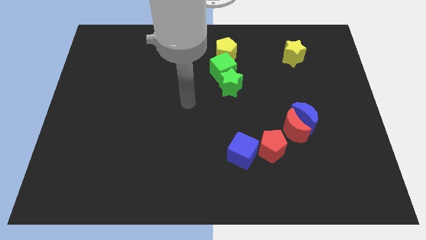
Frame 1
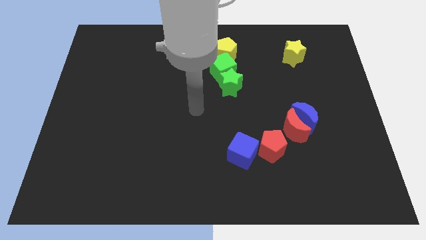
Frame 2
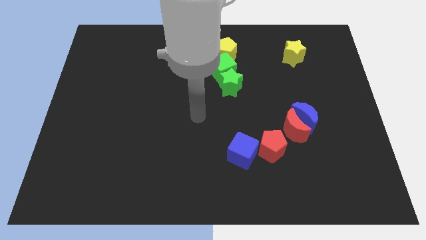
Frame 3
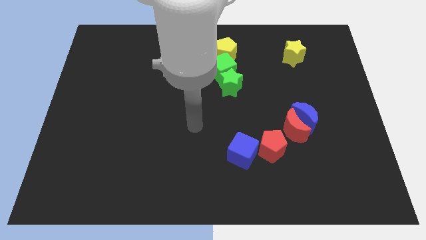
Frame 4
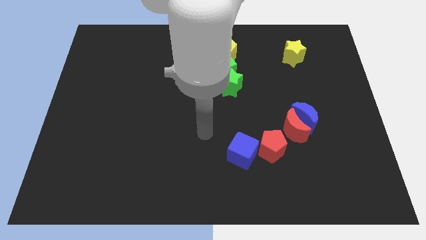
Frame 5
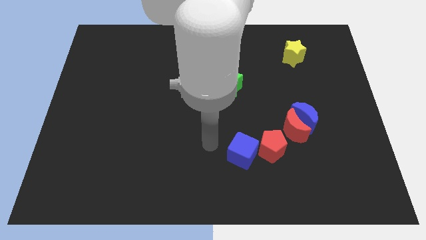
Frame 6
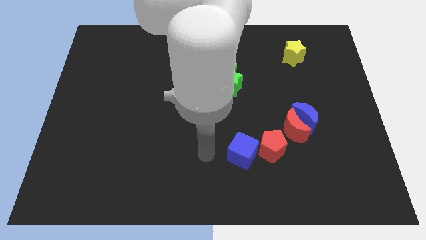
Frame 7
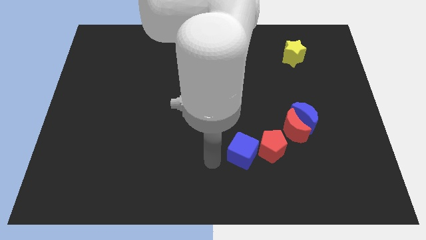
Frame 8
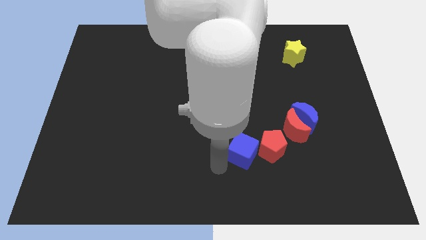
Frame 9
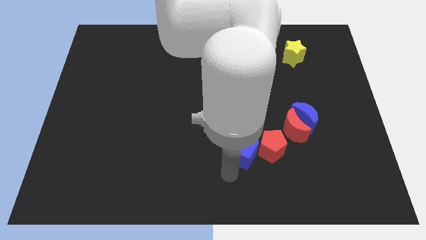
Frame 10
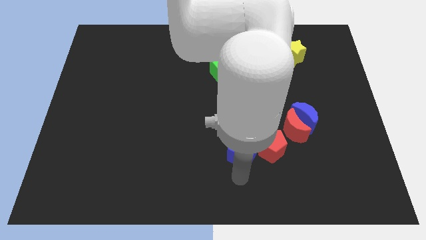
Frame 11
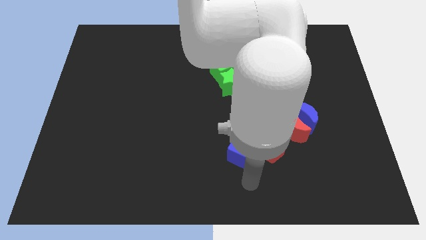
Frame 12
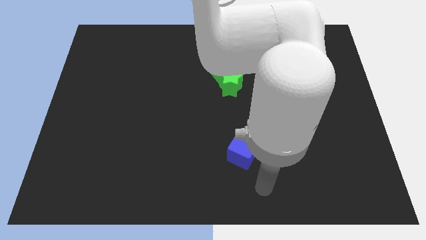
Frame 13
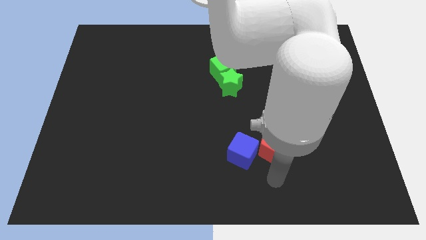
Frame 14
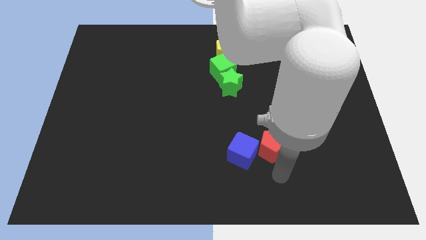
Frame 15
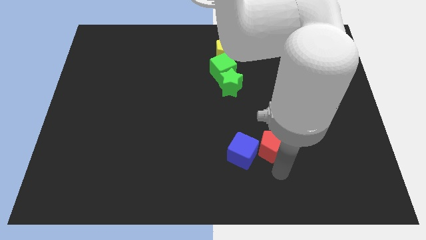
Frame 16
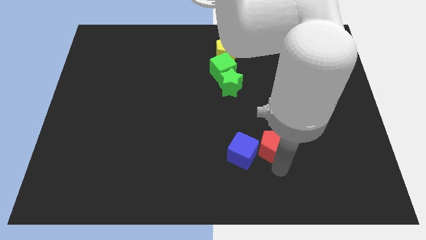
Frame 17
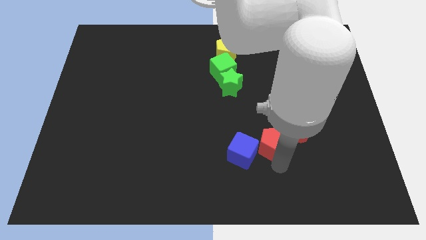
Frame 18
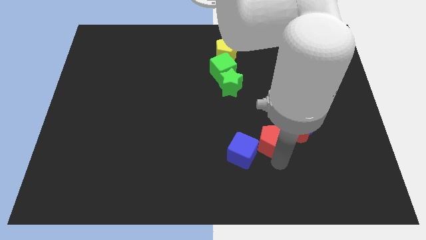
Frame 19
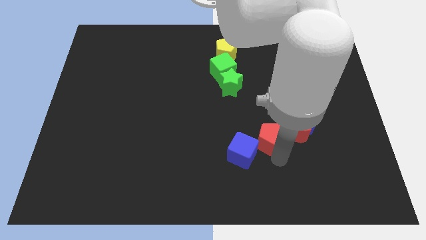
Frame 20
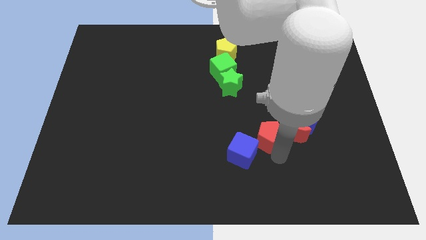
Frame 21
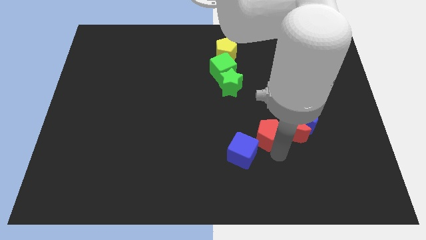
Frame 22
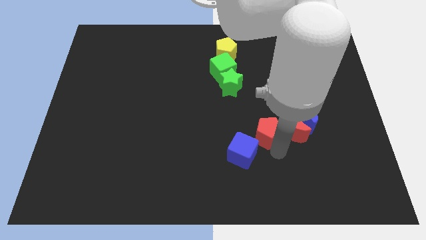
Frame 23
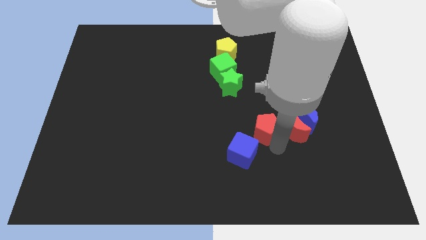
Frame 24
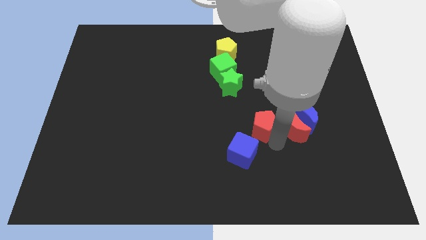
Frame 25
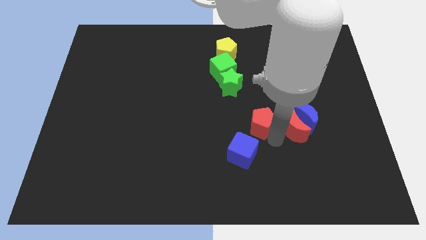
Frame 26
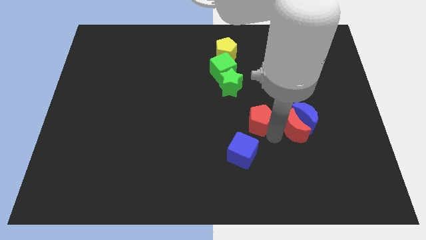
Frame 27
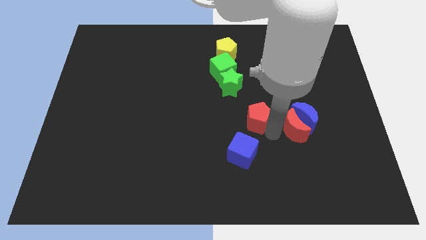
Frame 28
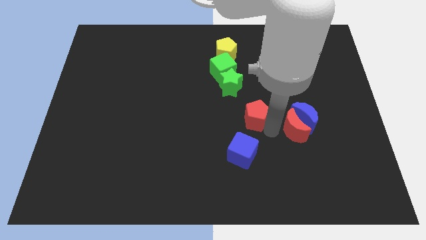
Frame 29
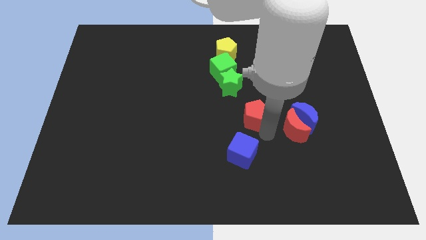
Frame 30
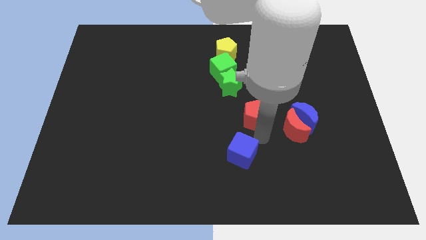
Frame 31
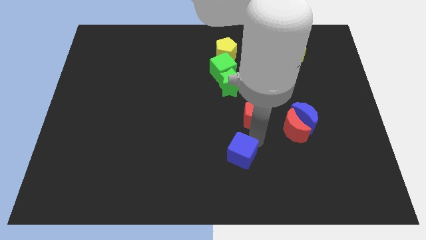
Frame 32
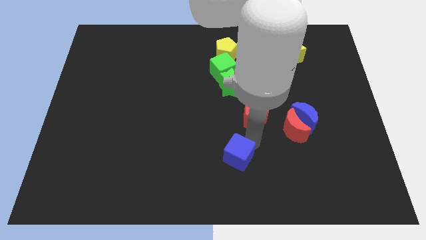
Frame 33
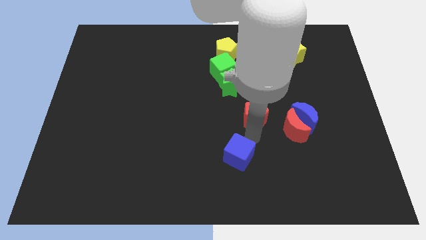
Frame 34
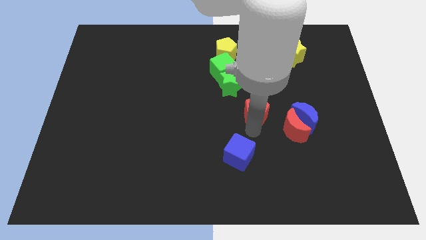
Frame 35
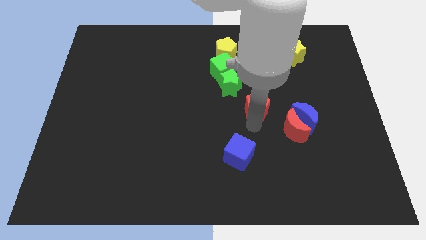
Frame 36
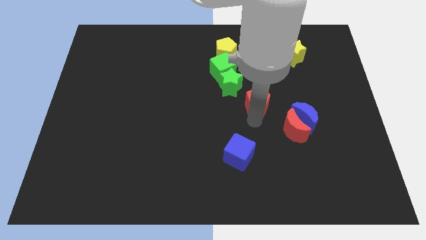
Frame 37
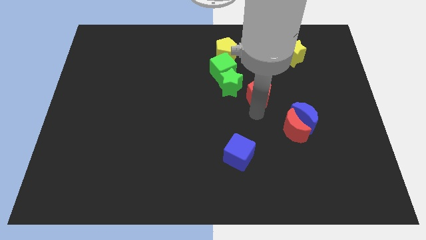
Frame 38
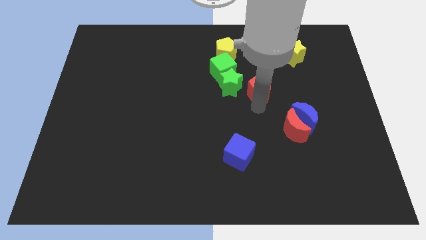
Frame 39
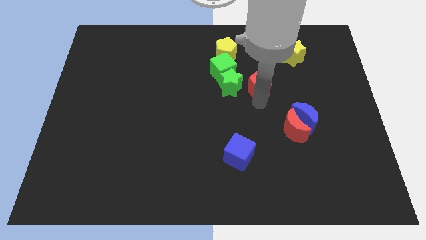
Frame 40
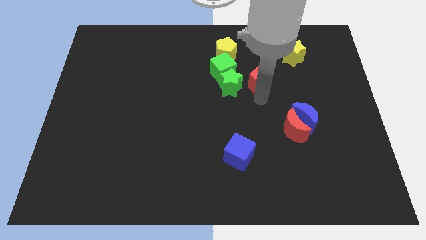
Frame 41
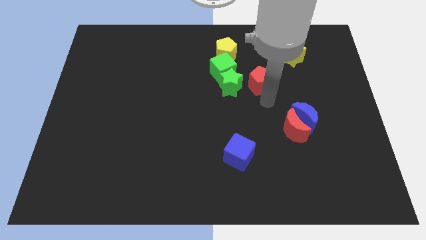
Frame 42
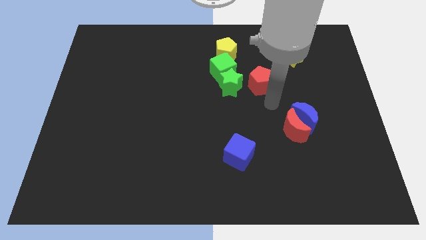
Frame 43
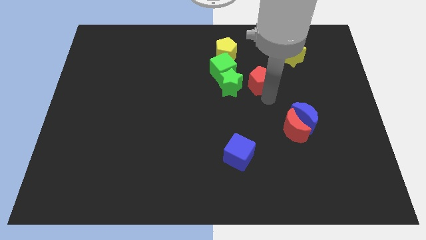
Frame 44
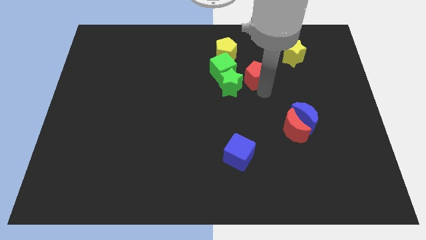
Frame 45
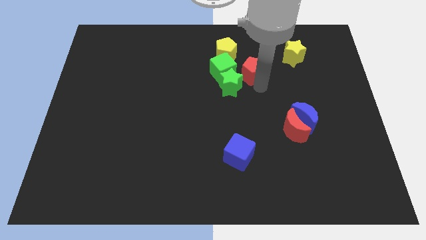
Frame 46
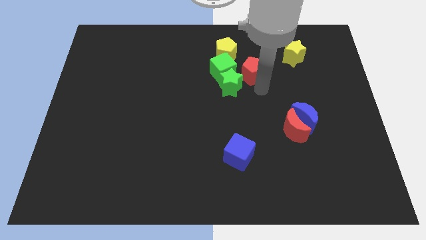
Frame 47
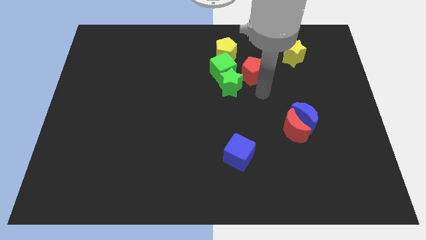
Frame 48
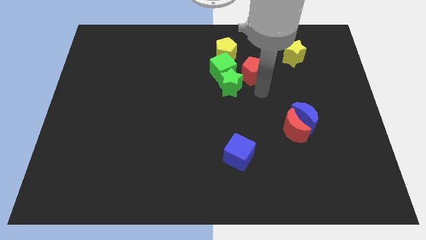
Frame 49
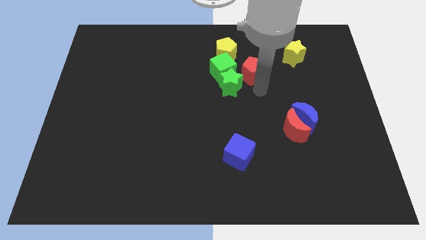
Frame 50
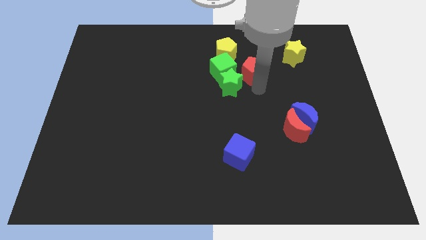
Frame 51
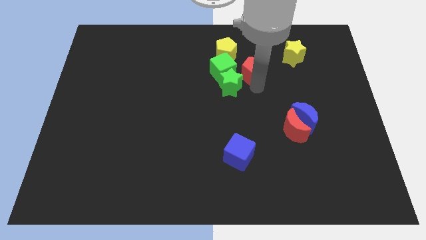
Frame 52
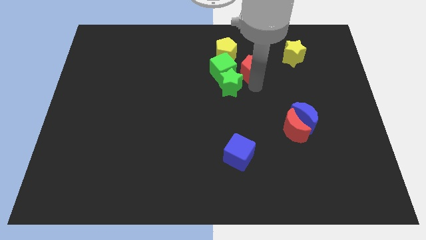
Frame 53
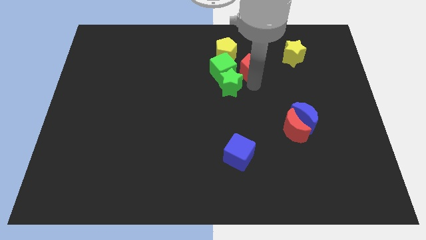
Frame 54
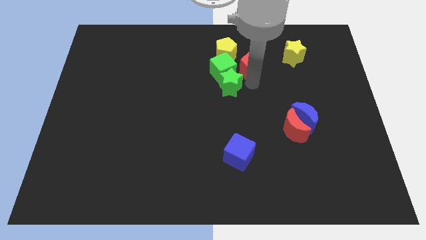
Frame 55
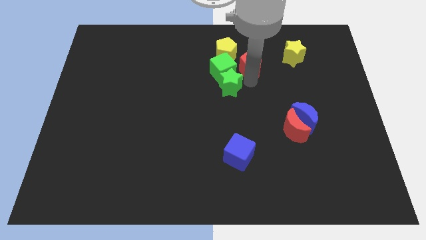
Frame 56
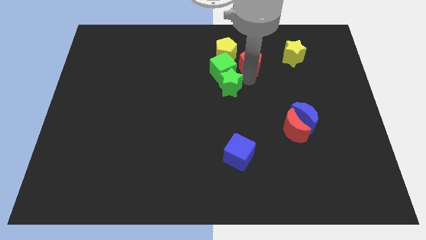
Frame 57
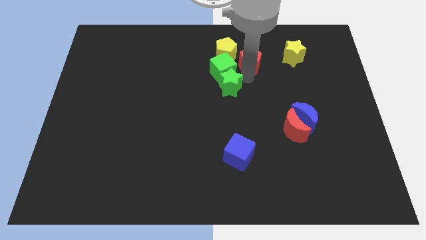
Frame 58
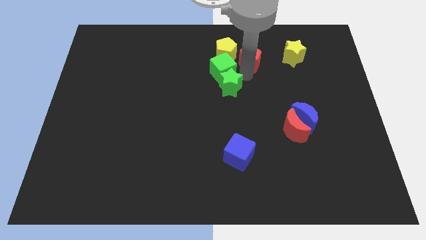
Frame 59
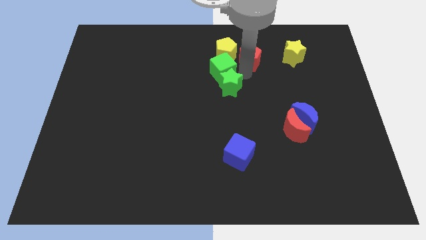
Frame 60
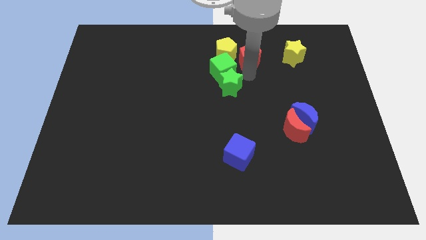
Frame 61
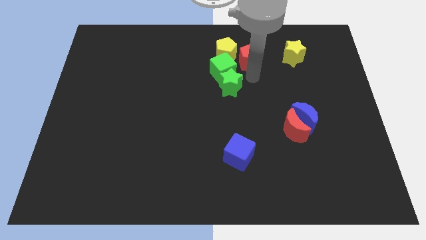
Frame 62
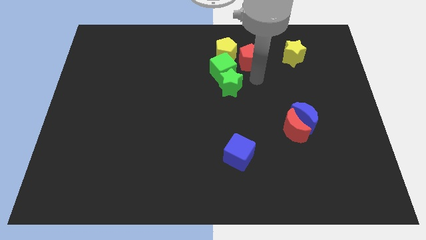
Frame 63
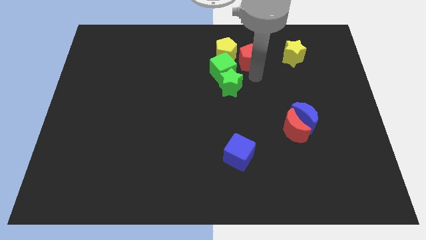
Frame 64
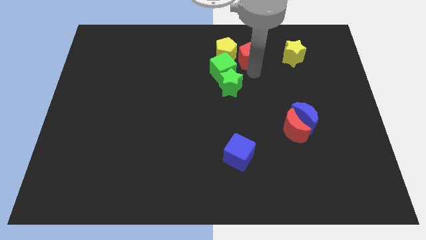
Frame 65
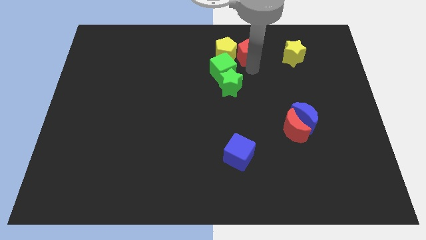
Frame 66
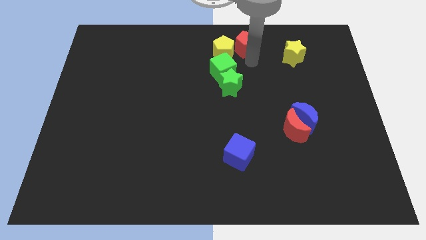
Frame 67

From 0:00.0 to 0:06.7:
push the red pentagon to the top
